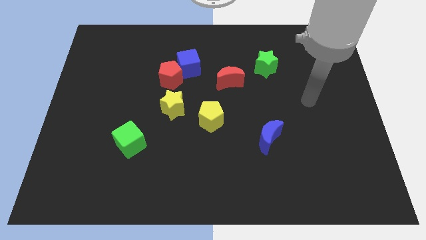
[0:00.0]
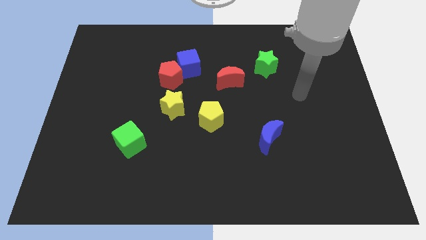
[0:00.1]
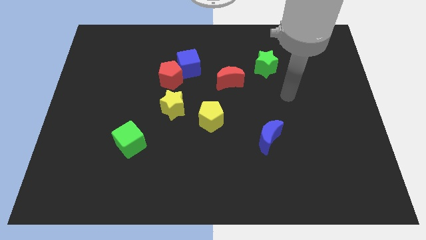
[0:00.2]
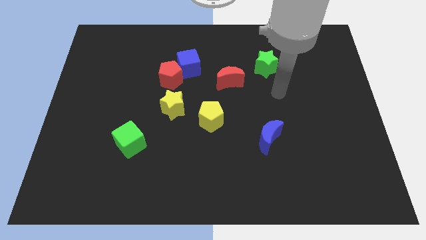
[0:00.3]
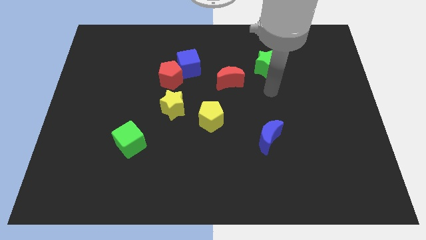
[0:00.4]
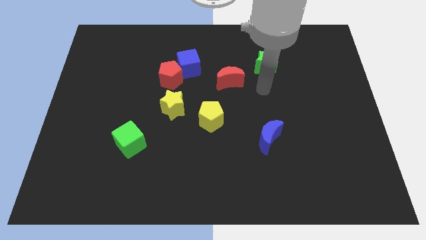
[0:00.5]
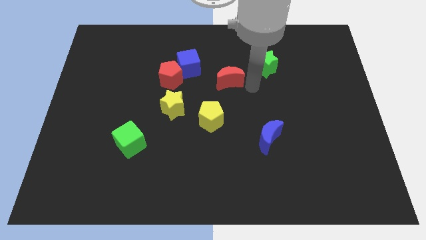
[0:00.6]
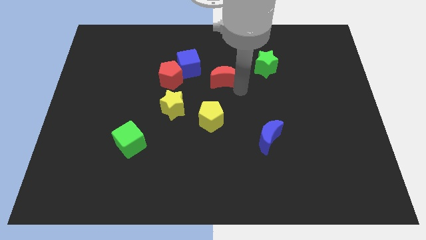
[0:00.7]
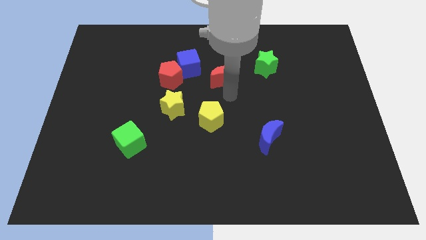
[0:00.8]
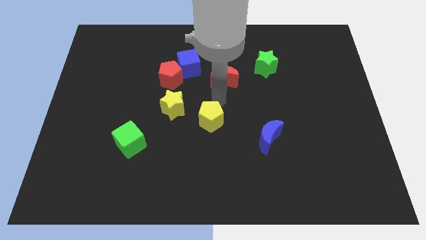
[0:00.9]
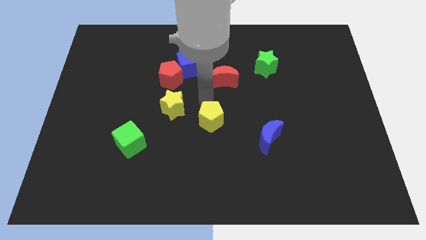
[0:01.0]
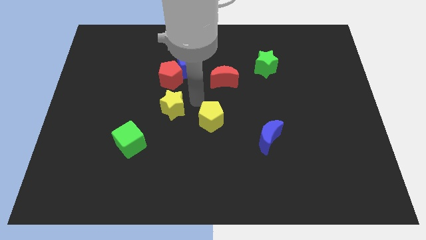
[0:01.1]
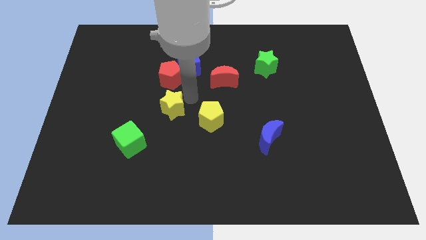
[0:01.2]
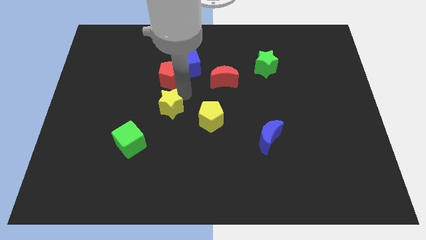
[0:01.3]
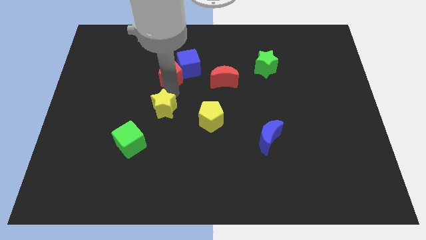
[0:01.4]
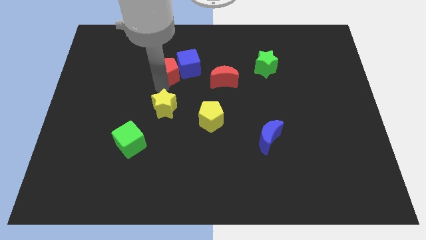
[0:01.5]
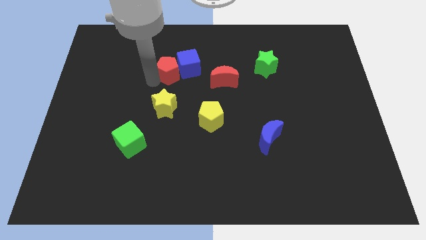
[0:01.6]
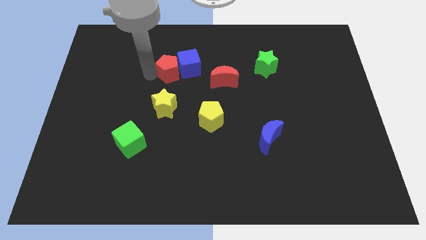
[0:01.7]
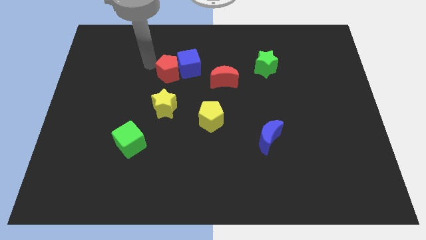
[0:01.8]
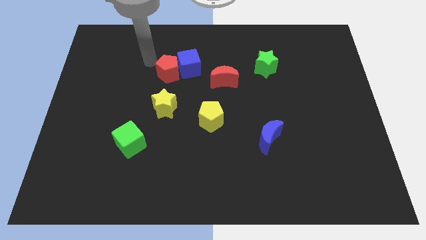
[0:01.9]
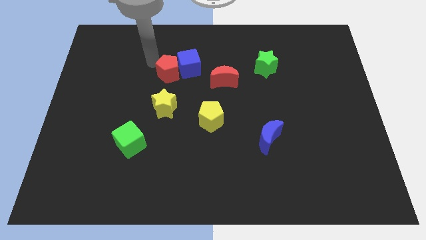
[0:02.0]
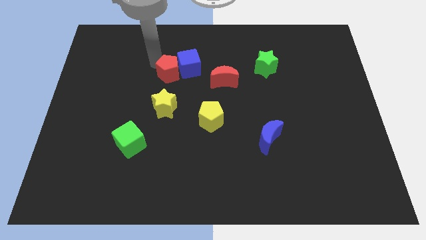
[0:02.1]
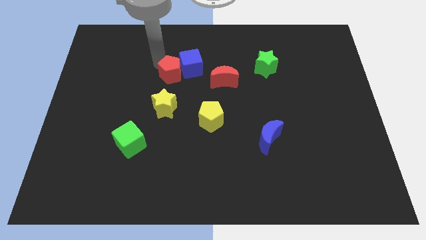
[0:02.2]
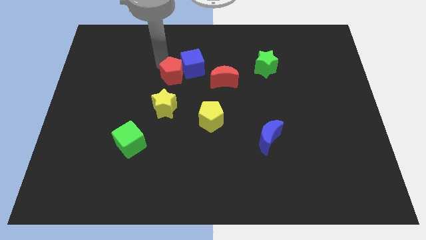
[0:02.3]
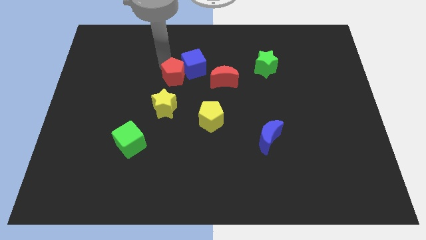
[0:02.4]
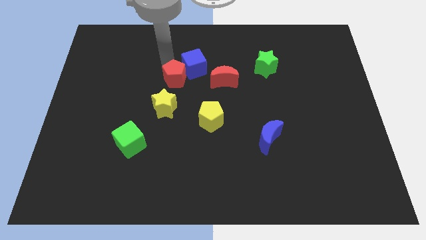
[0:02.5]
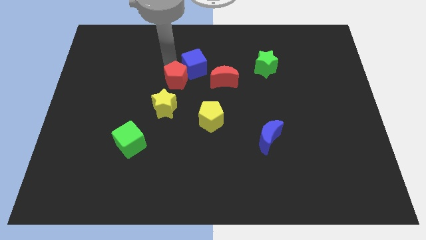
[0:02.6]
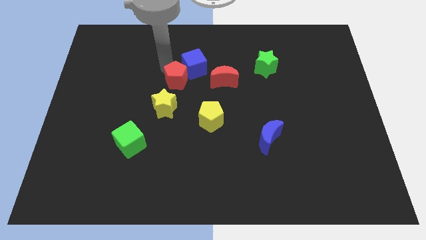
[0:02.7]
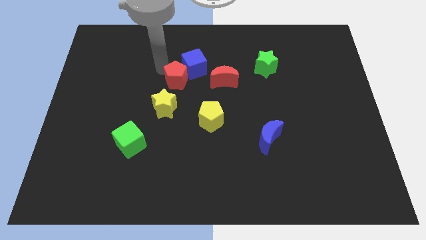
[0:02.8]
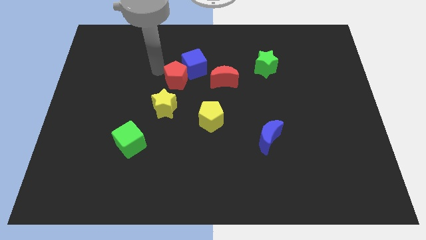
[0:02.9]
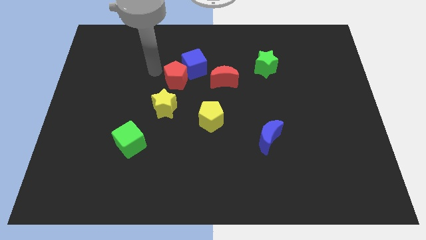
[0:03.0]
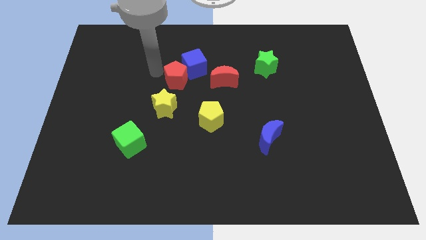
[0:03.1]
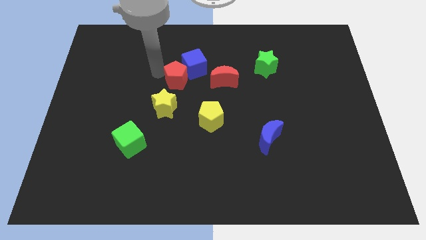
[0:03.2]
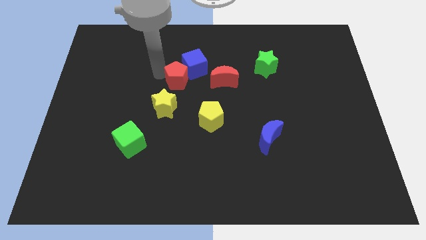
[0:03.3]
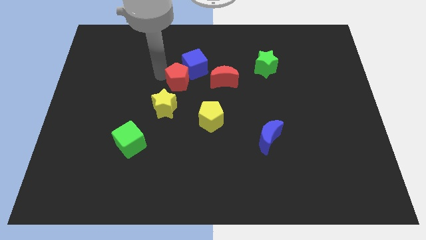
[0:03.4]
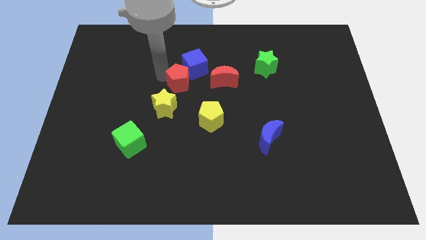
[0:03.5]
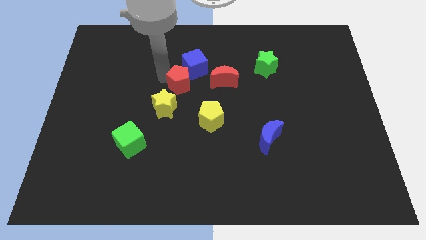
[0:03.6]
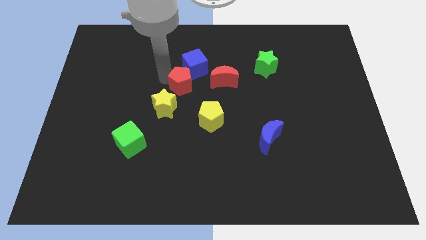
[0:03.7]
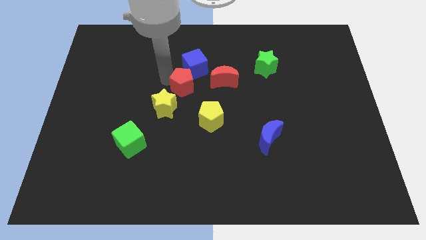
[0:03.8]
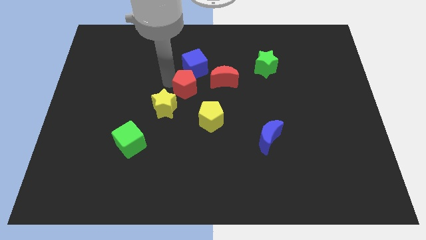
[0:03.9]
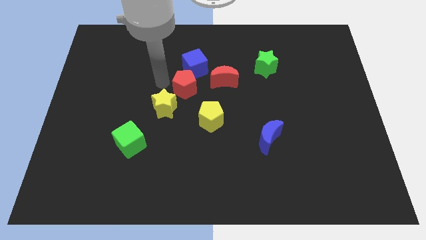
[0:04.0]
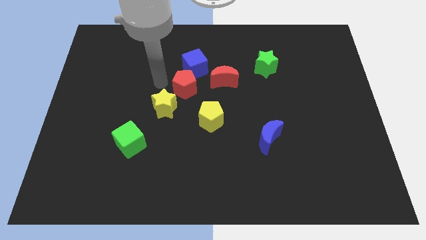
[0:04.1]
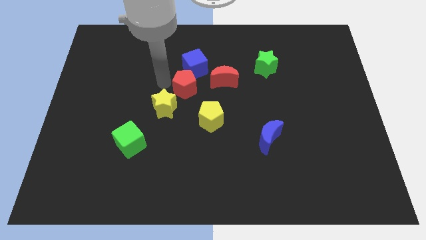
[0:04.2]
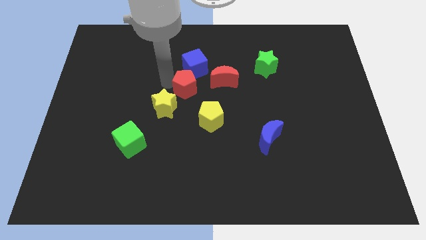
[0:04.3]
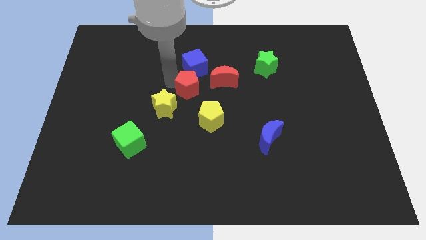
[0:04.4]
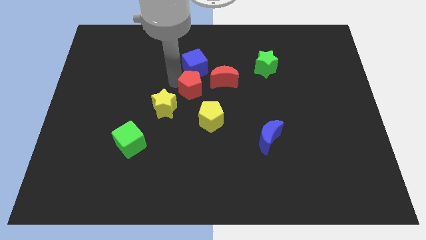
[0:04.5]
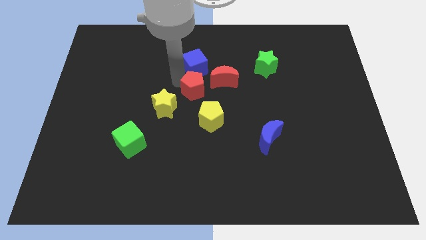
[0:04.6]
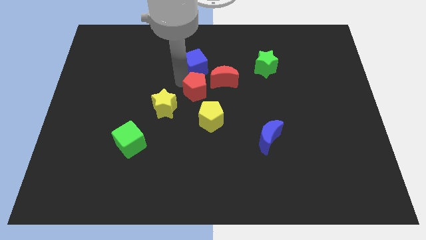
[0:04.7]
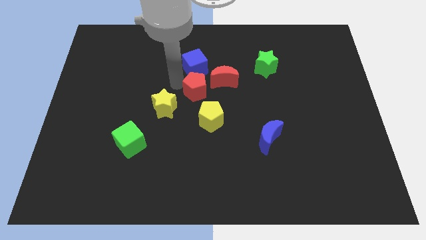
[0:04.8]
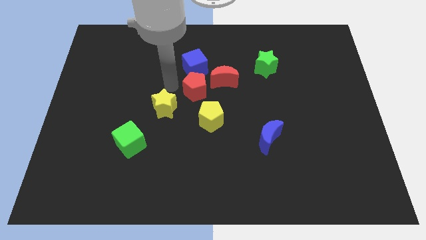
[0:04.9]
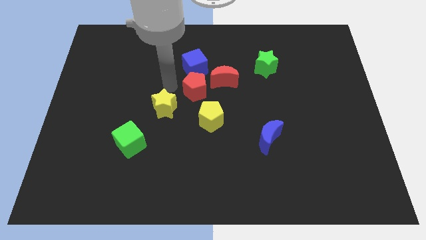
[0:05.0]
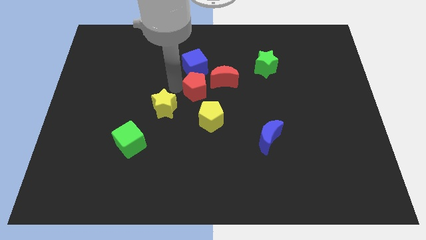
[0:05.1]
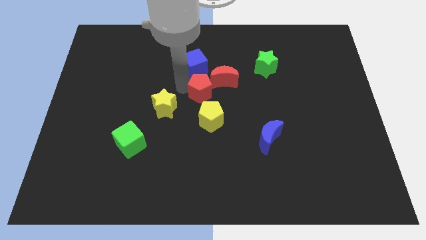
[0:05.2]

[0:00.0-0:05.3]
move the red pentagon right a bit

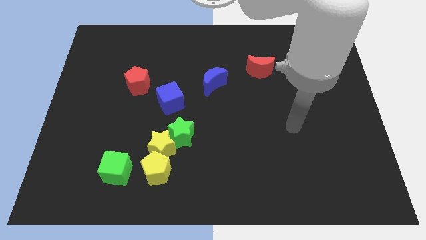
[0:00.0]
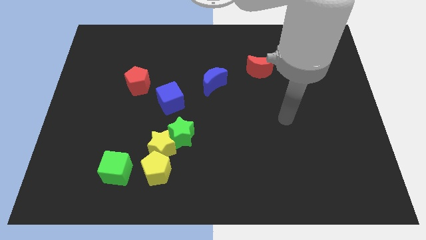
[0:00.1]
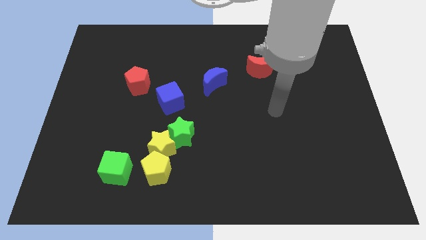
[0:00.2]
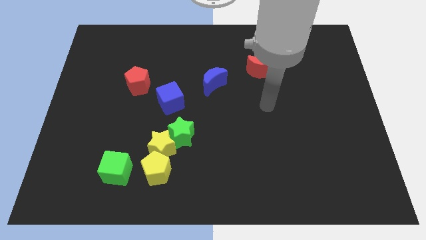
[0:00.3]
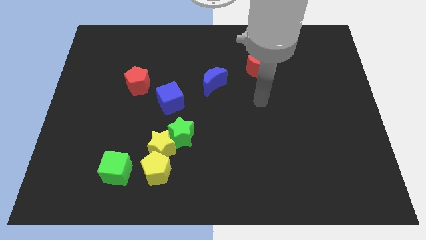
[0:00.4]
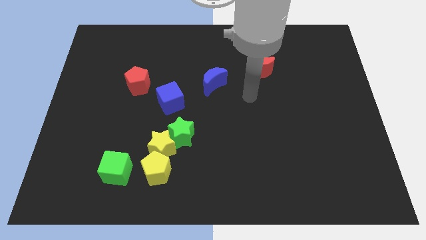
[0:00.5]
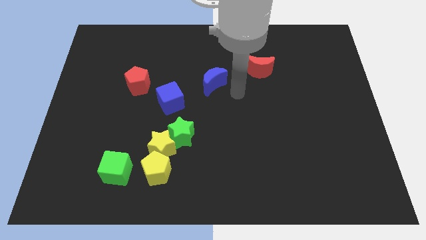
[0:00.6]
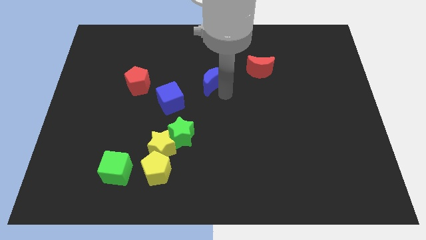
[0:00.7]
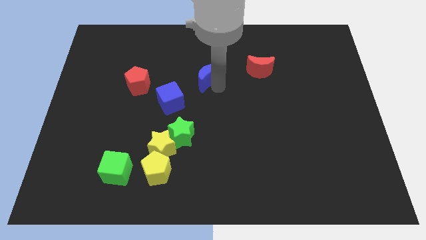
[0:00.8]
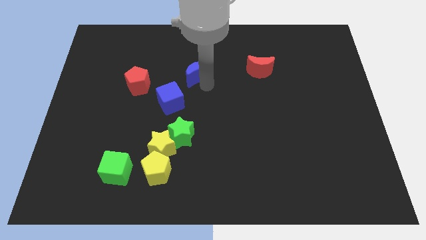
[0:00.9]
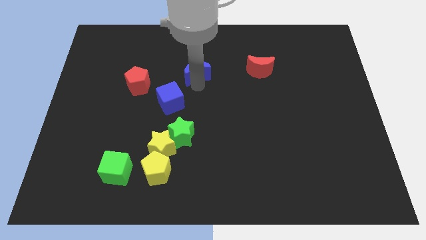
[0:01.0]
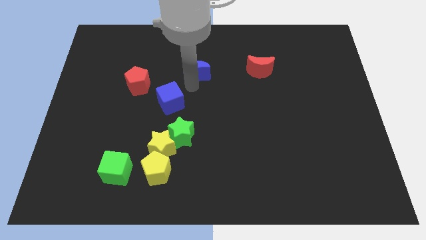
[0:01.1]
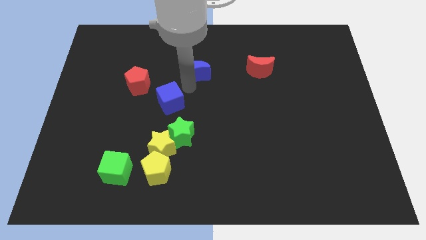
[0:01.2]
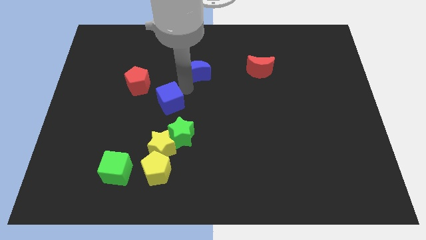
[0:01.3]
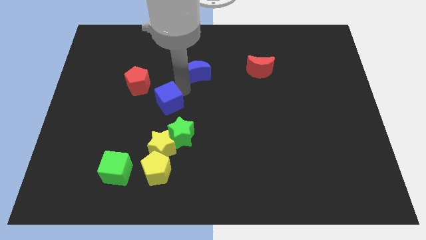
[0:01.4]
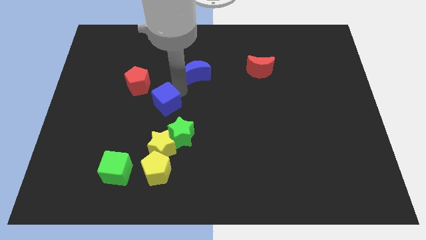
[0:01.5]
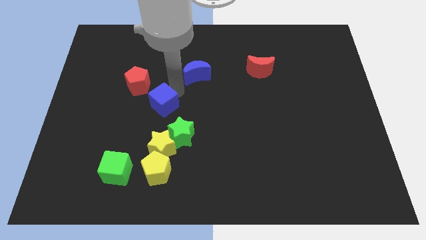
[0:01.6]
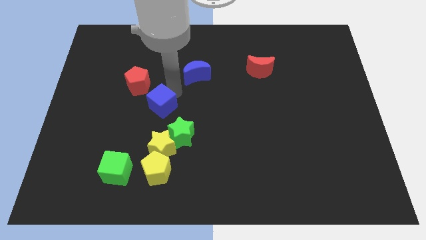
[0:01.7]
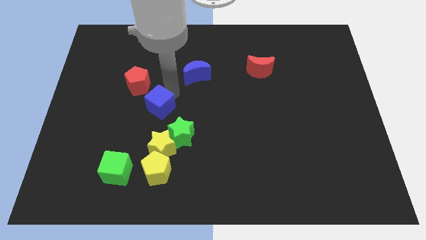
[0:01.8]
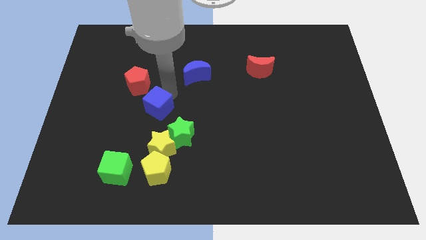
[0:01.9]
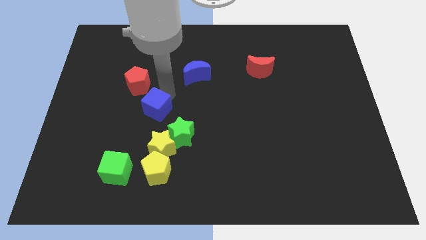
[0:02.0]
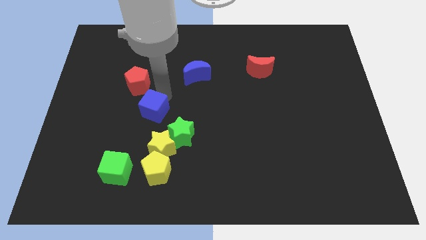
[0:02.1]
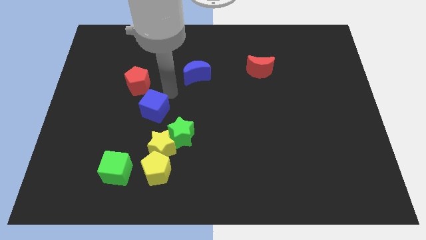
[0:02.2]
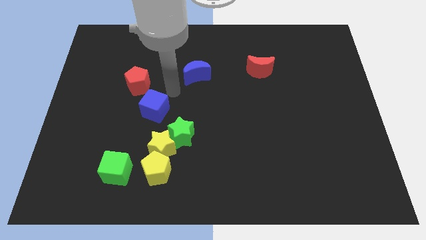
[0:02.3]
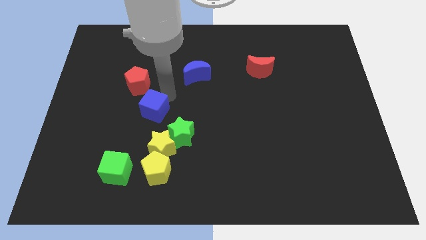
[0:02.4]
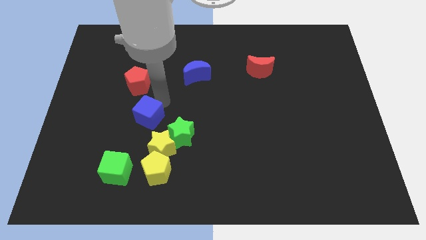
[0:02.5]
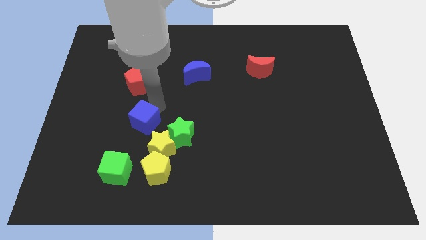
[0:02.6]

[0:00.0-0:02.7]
push the blue cube down and then left a little bit

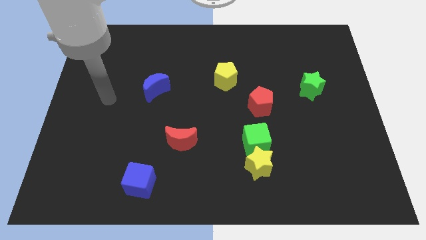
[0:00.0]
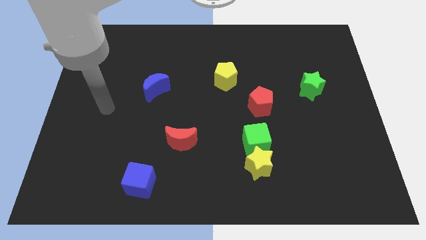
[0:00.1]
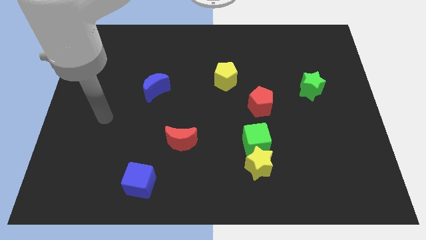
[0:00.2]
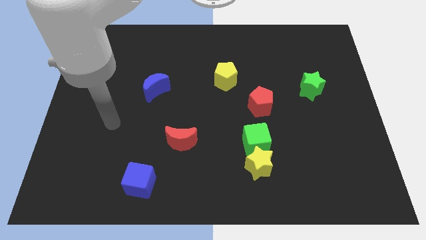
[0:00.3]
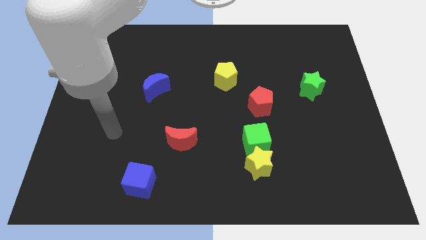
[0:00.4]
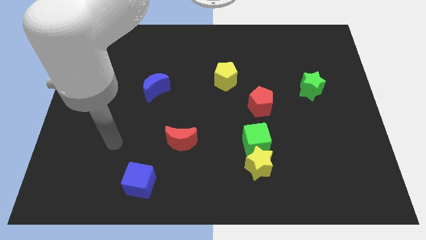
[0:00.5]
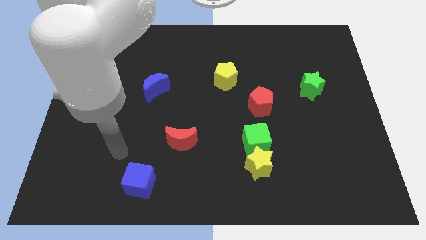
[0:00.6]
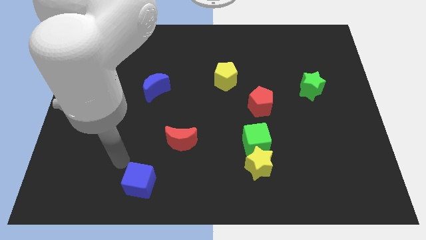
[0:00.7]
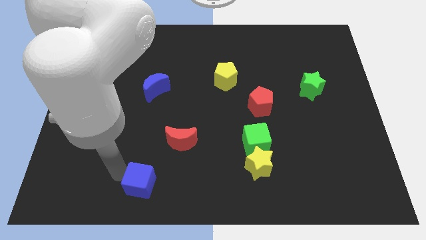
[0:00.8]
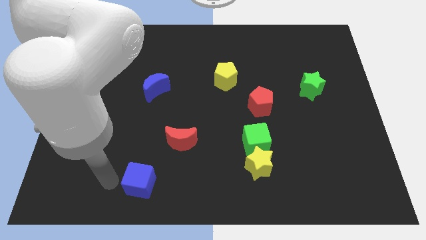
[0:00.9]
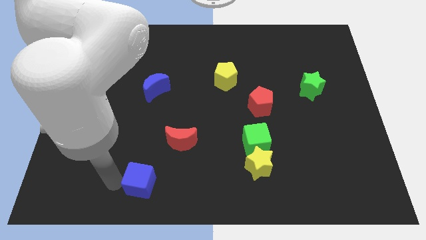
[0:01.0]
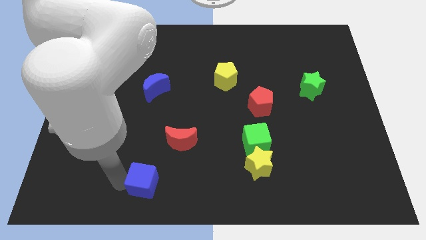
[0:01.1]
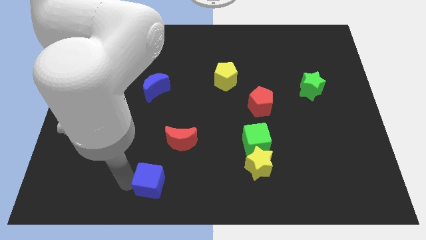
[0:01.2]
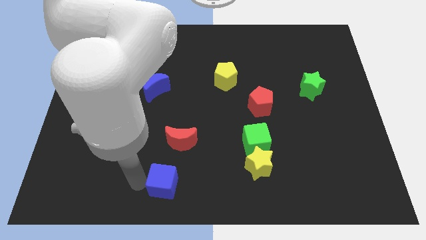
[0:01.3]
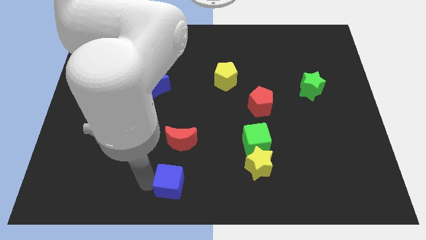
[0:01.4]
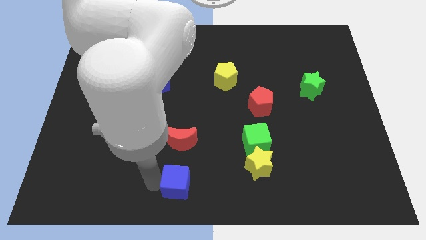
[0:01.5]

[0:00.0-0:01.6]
slightly move the blue cube right
